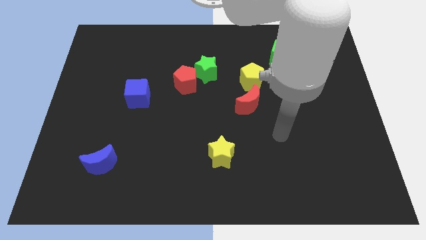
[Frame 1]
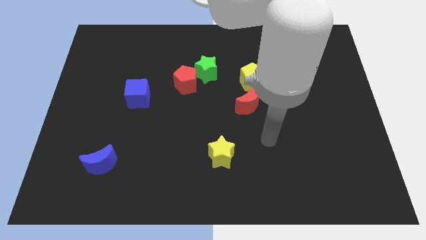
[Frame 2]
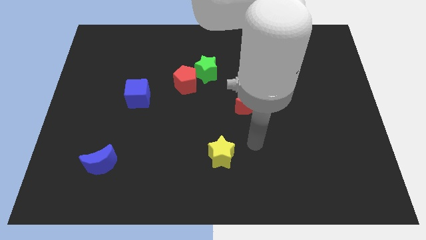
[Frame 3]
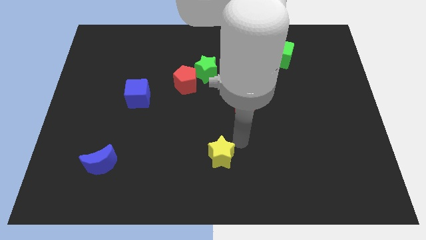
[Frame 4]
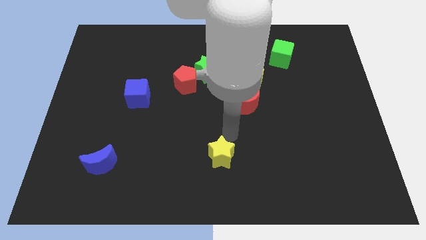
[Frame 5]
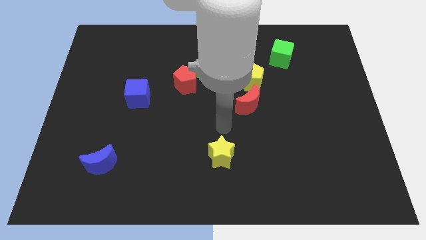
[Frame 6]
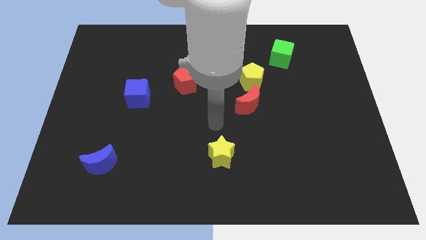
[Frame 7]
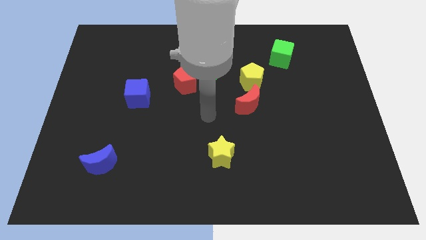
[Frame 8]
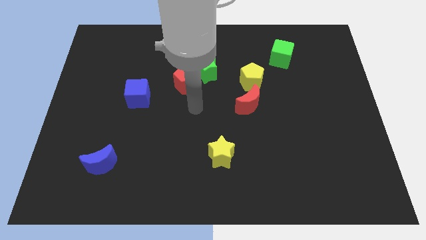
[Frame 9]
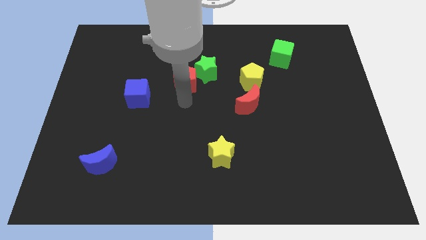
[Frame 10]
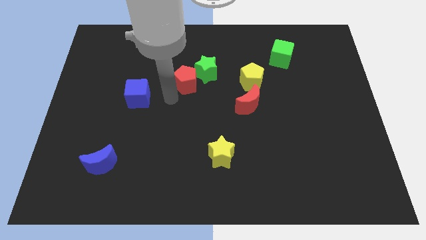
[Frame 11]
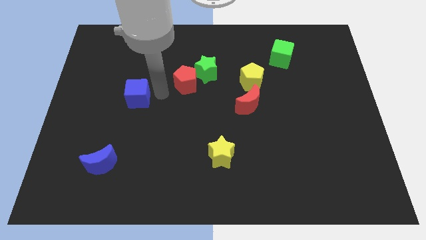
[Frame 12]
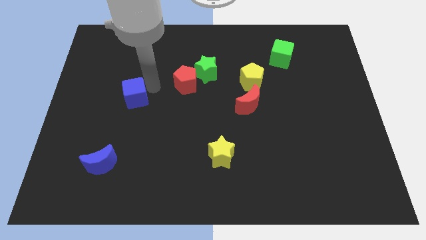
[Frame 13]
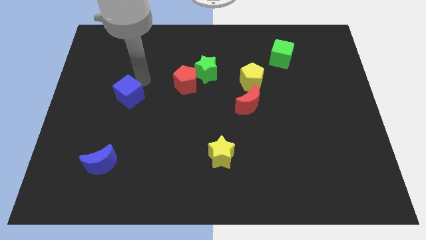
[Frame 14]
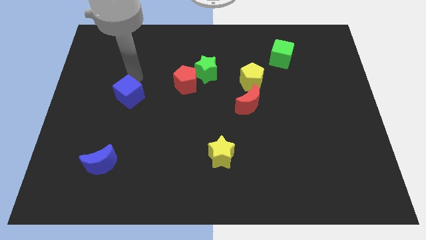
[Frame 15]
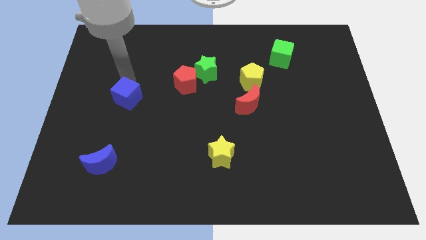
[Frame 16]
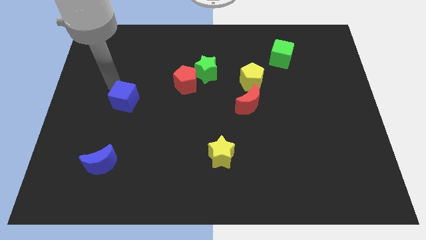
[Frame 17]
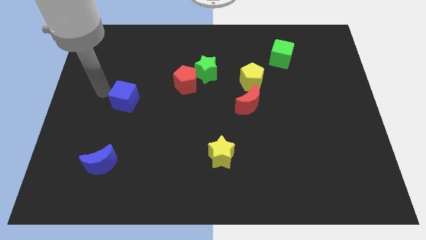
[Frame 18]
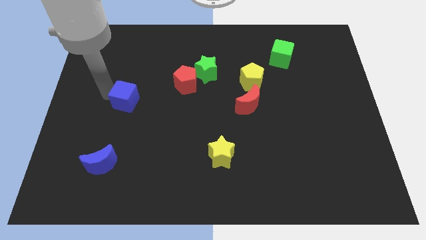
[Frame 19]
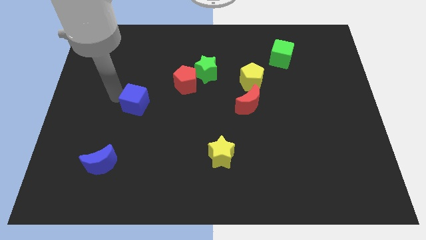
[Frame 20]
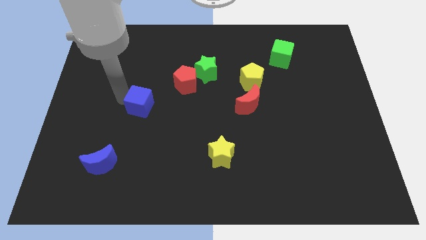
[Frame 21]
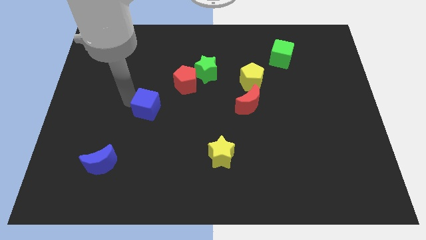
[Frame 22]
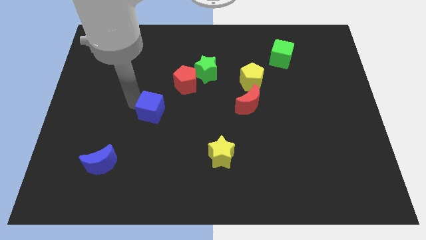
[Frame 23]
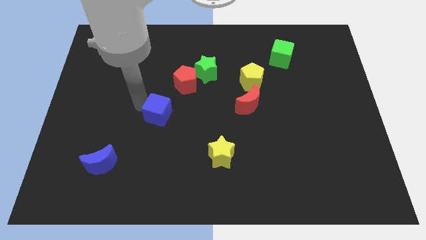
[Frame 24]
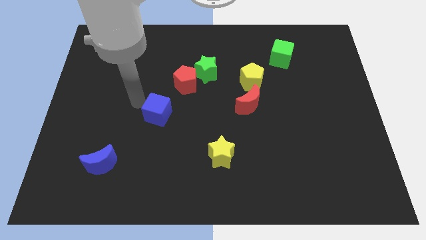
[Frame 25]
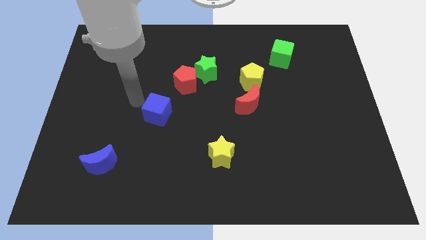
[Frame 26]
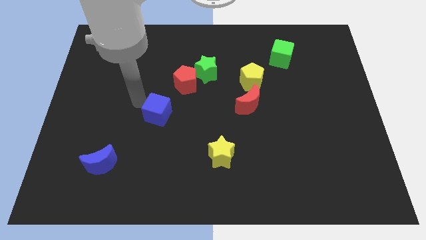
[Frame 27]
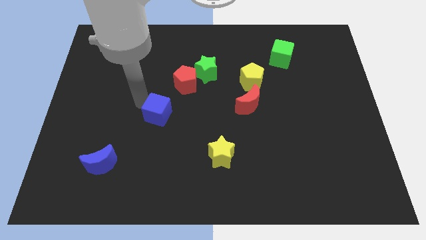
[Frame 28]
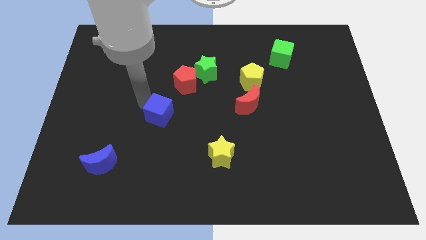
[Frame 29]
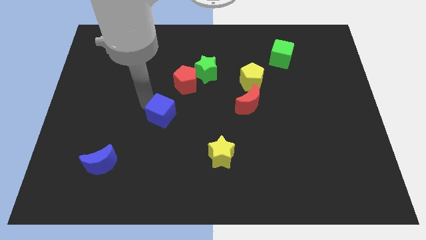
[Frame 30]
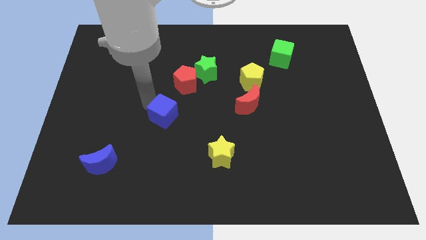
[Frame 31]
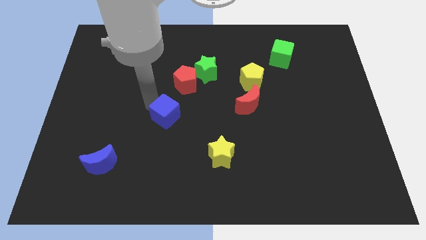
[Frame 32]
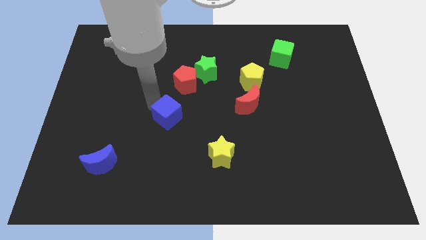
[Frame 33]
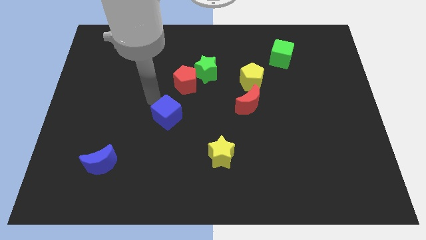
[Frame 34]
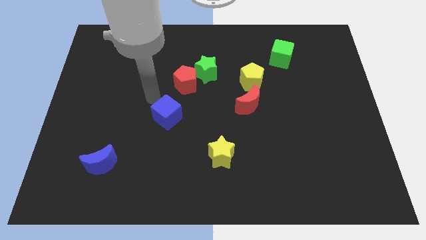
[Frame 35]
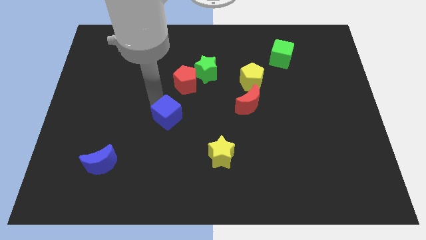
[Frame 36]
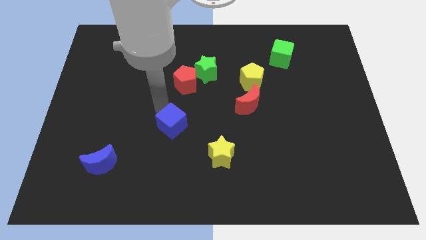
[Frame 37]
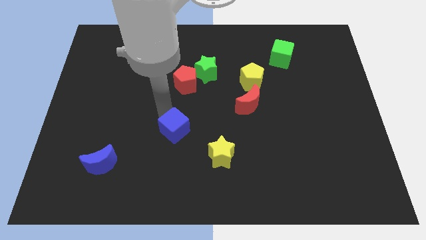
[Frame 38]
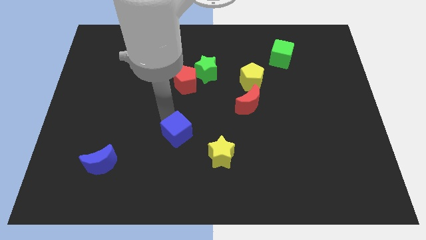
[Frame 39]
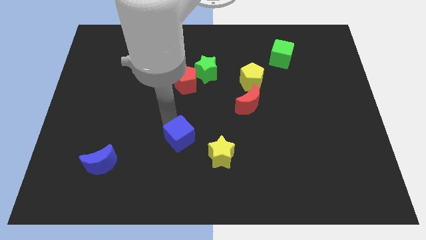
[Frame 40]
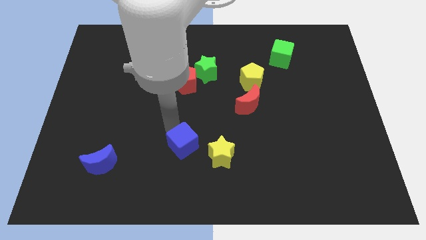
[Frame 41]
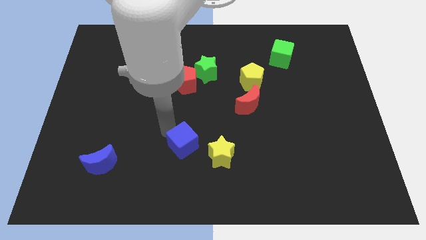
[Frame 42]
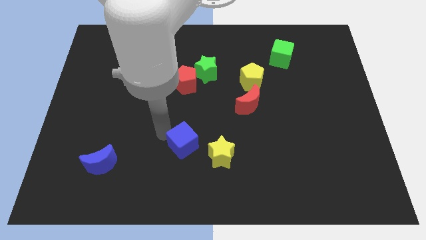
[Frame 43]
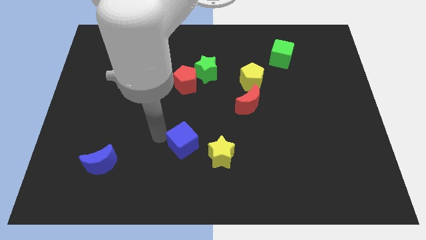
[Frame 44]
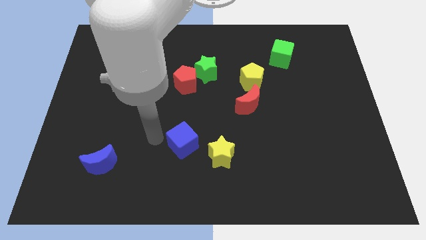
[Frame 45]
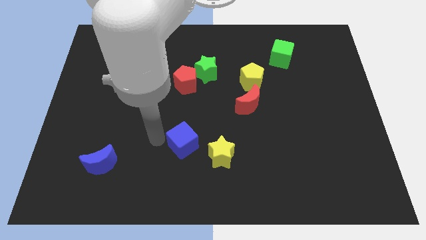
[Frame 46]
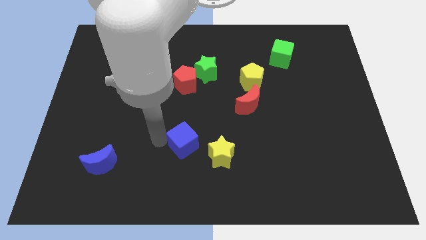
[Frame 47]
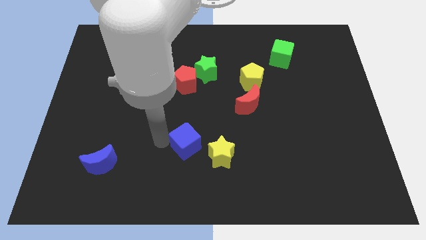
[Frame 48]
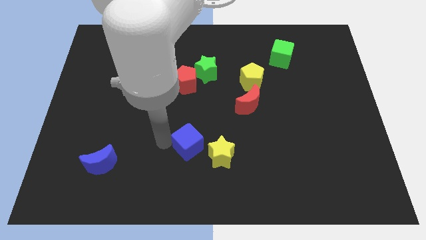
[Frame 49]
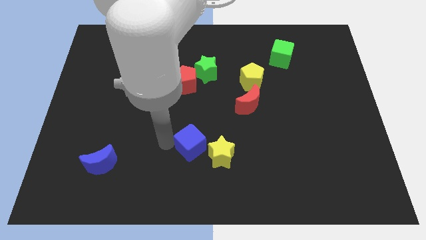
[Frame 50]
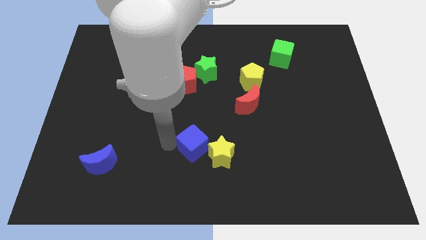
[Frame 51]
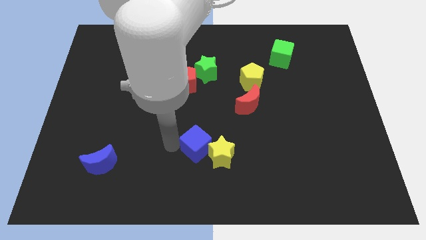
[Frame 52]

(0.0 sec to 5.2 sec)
push the blue cube towards the yellow star

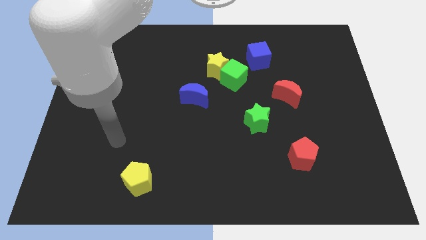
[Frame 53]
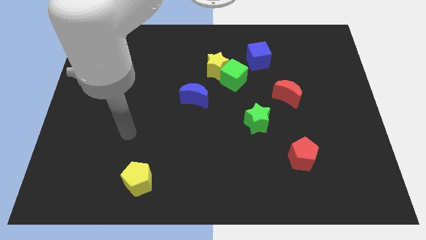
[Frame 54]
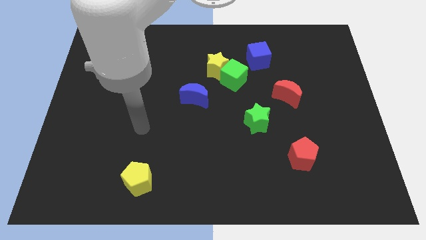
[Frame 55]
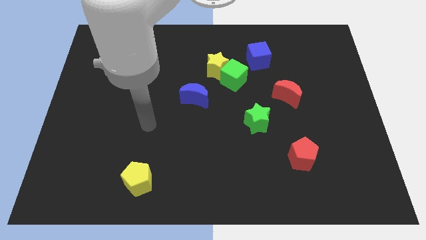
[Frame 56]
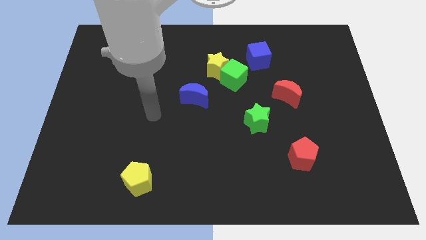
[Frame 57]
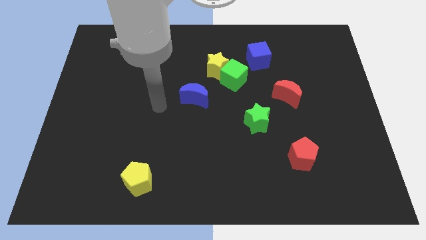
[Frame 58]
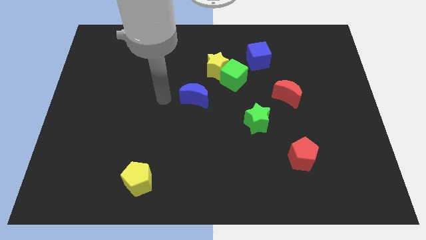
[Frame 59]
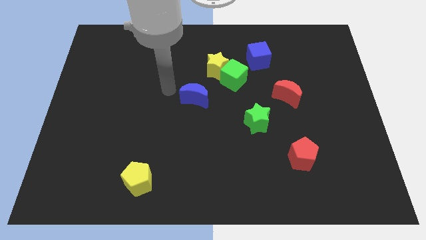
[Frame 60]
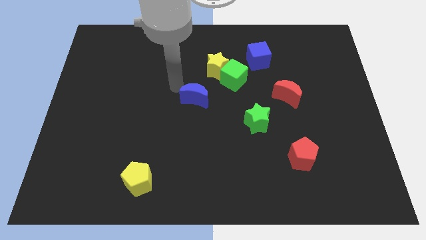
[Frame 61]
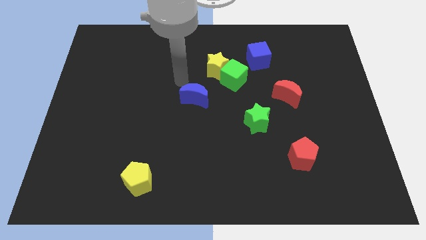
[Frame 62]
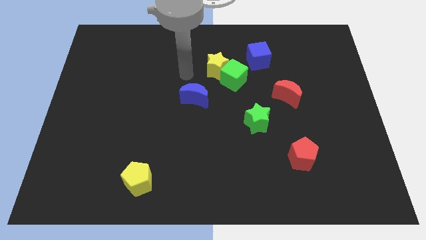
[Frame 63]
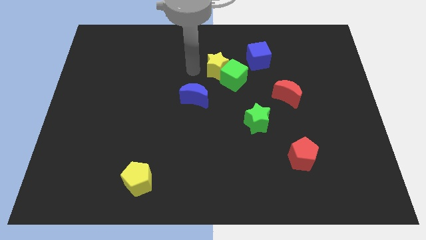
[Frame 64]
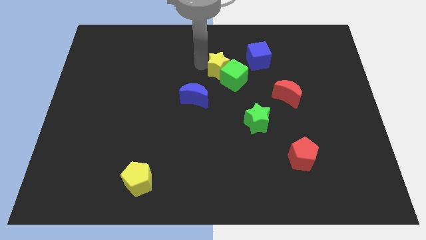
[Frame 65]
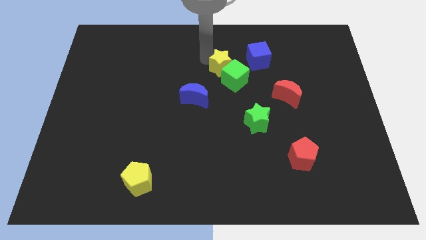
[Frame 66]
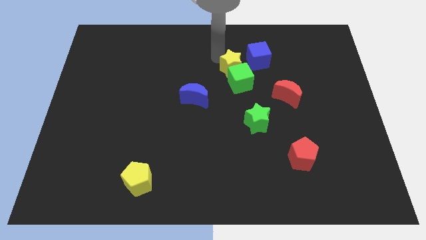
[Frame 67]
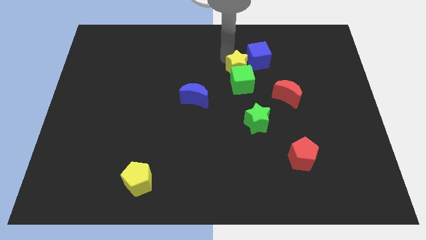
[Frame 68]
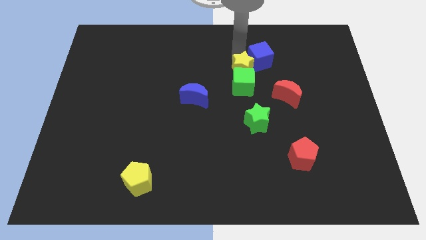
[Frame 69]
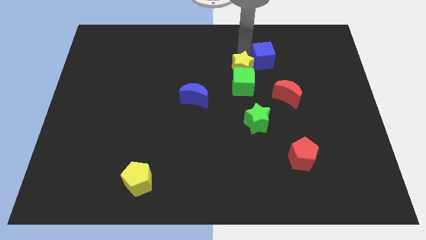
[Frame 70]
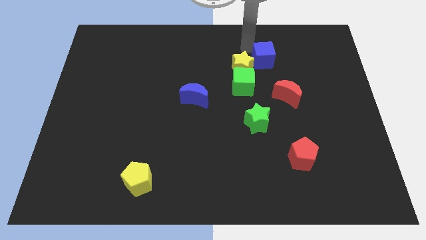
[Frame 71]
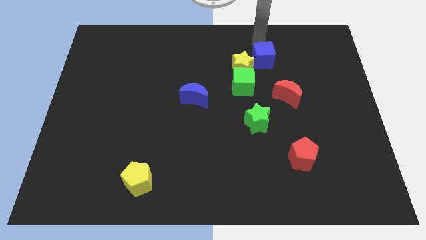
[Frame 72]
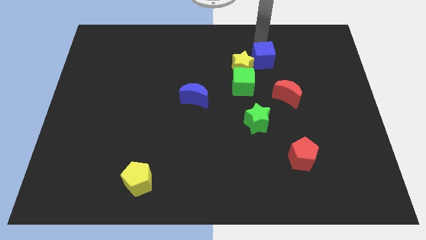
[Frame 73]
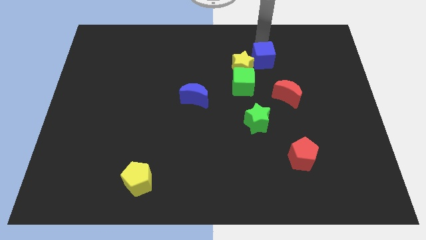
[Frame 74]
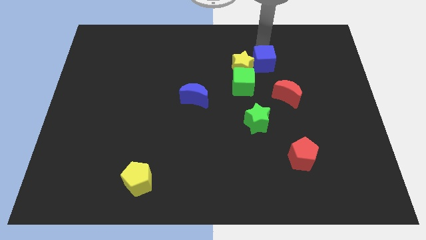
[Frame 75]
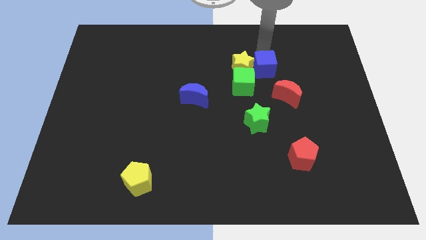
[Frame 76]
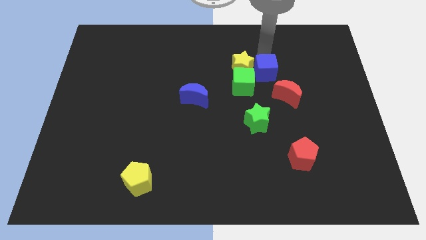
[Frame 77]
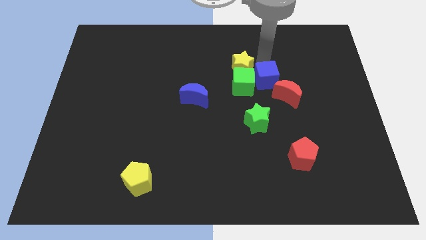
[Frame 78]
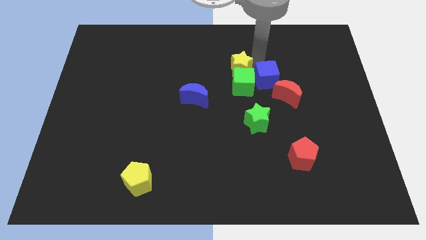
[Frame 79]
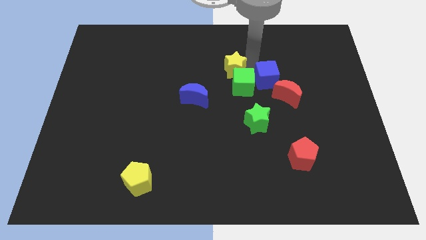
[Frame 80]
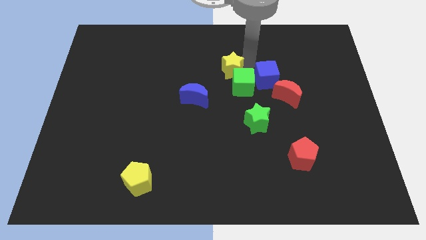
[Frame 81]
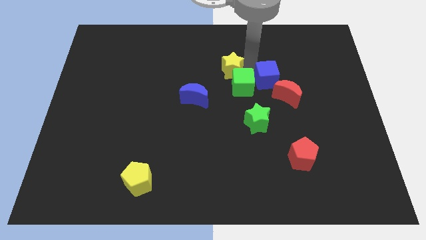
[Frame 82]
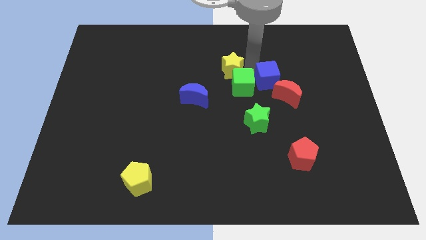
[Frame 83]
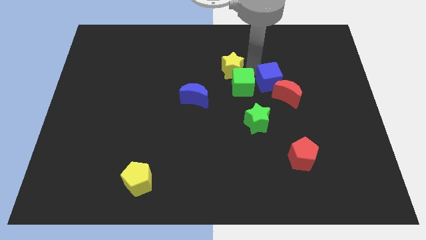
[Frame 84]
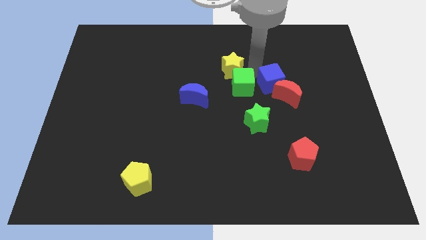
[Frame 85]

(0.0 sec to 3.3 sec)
move the blue cube towards the red moon
